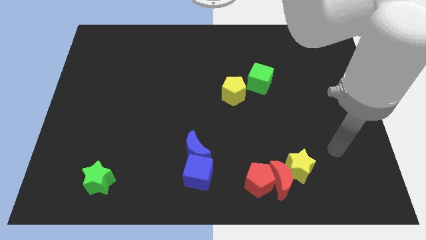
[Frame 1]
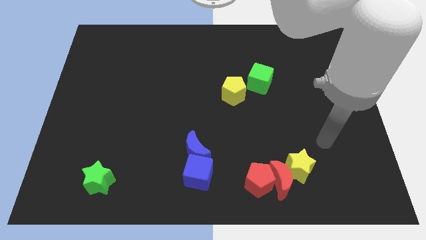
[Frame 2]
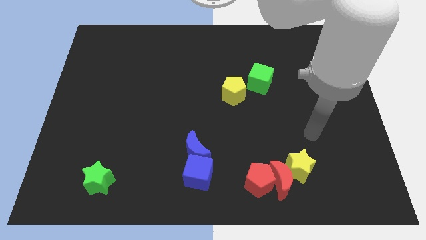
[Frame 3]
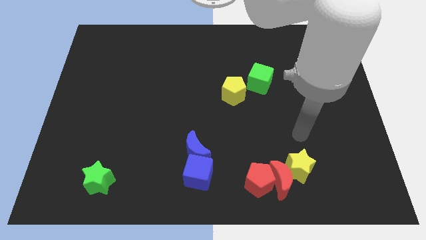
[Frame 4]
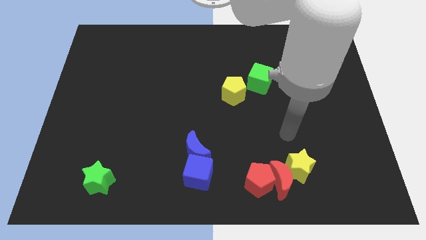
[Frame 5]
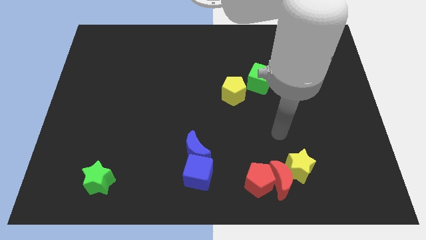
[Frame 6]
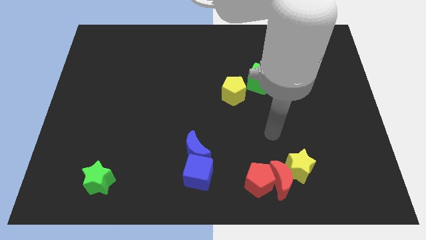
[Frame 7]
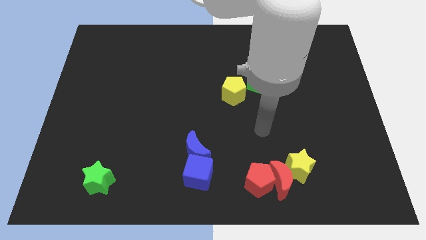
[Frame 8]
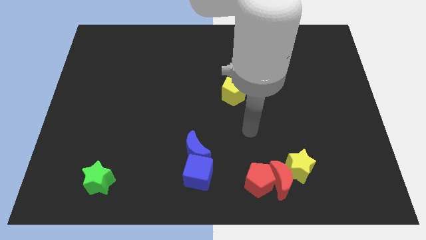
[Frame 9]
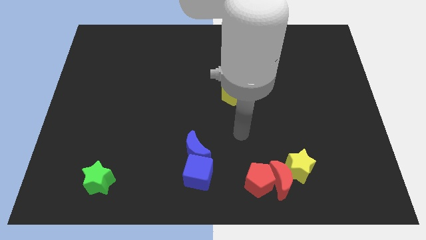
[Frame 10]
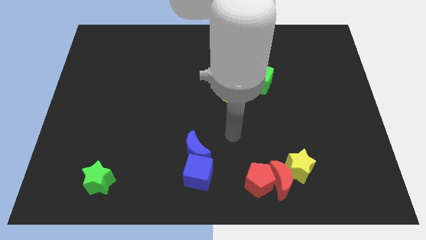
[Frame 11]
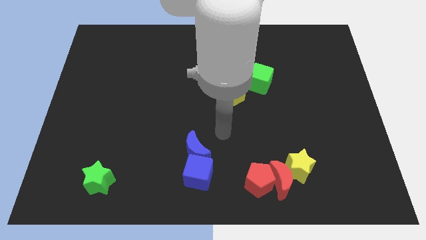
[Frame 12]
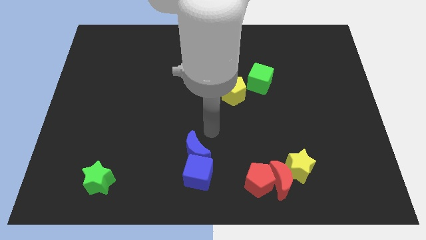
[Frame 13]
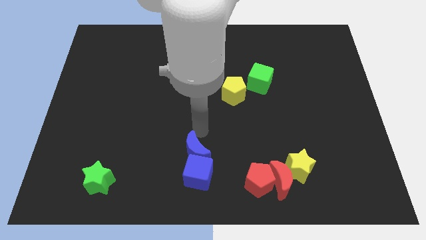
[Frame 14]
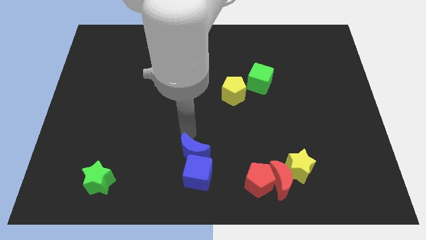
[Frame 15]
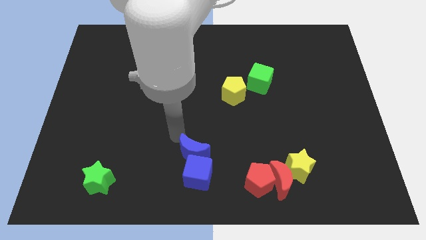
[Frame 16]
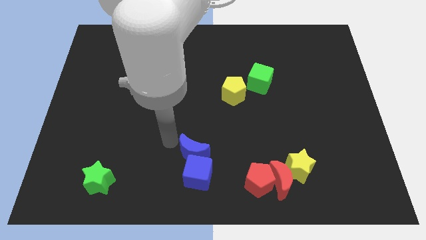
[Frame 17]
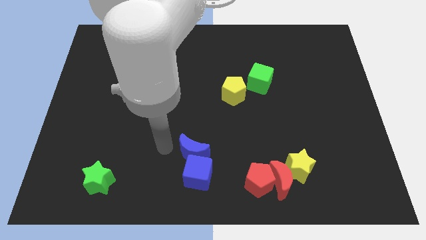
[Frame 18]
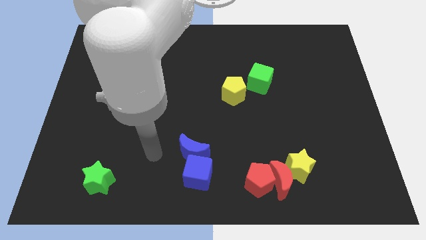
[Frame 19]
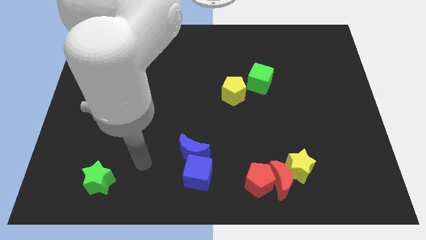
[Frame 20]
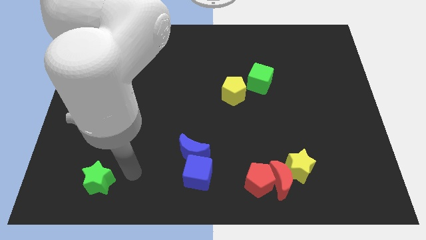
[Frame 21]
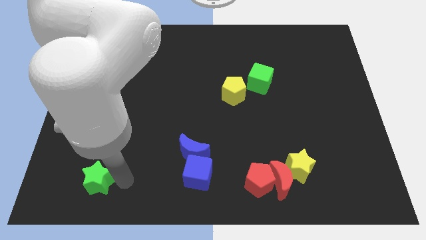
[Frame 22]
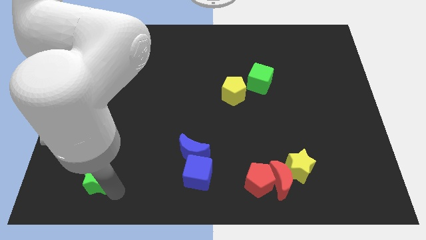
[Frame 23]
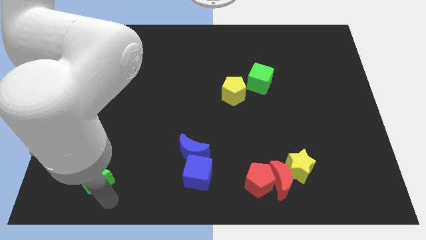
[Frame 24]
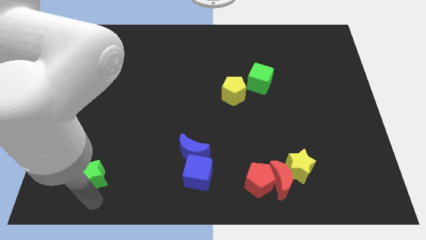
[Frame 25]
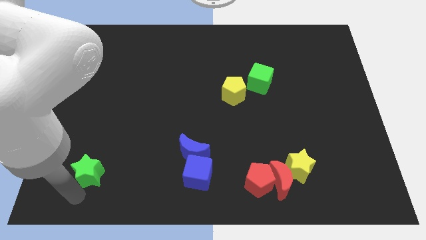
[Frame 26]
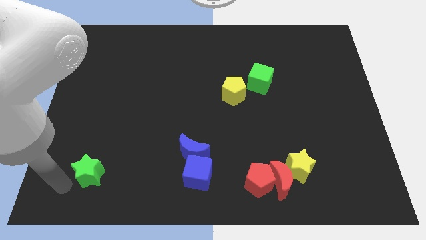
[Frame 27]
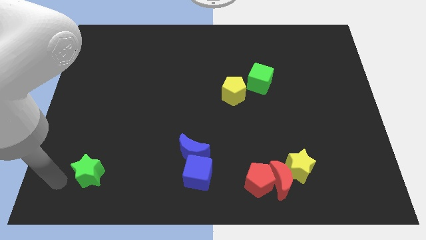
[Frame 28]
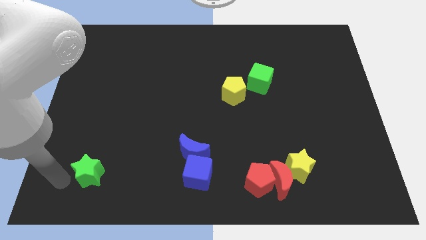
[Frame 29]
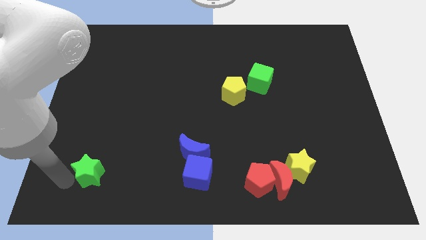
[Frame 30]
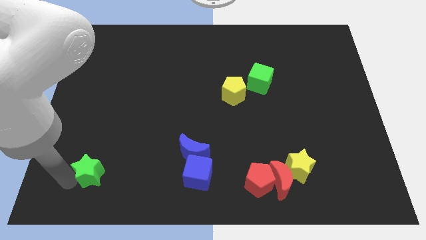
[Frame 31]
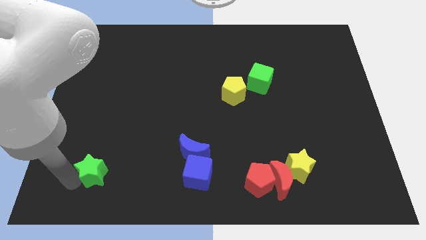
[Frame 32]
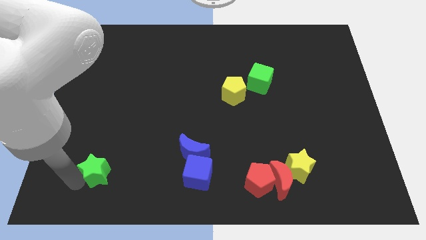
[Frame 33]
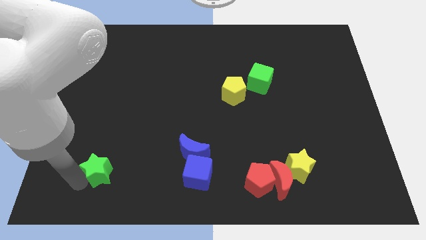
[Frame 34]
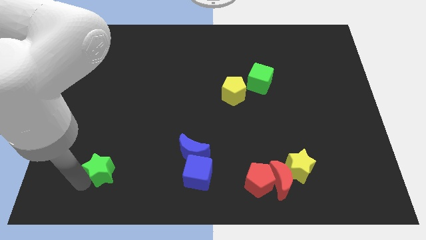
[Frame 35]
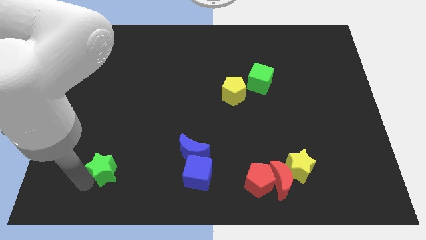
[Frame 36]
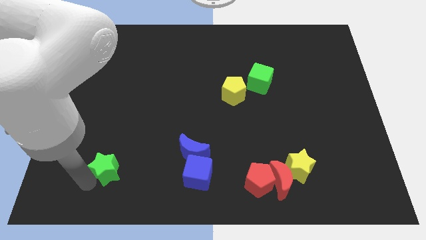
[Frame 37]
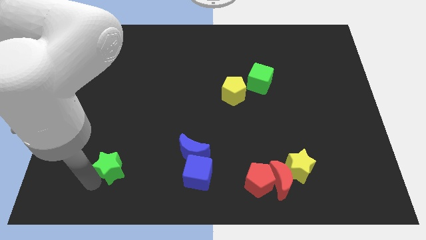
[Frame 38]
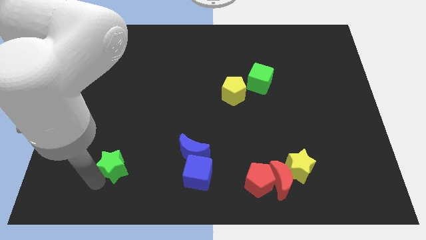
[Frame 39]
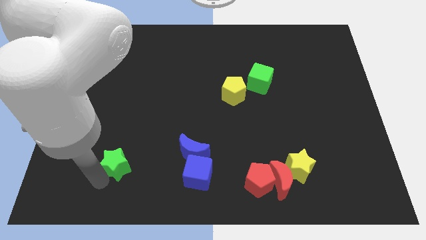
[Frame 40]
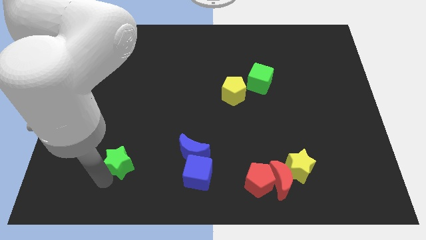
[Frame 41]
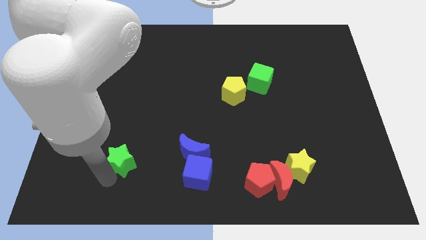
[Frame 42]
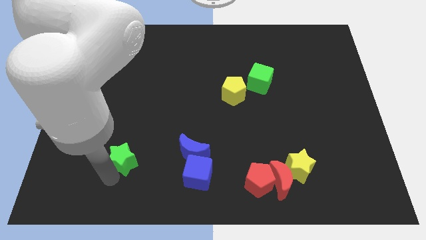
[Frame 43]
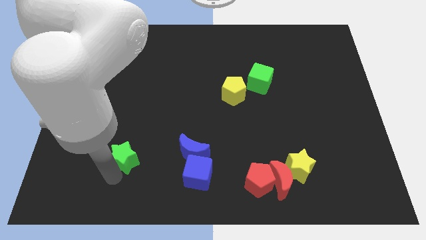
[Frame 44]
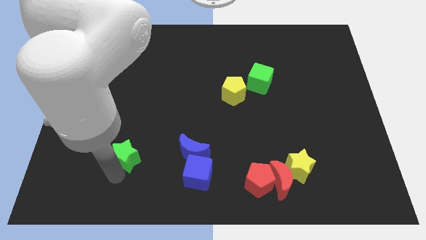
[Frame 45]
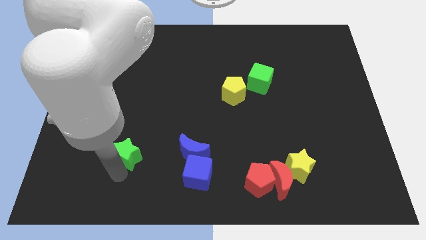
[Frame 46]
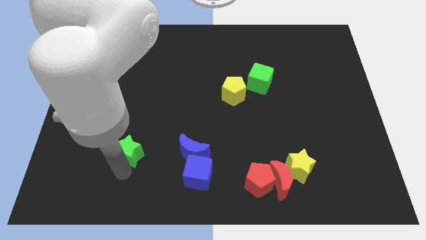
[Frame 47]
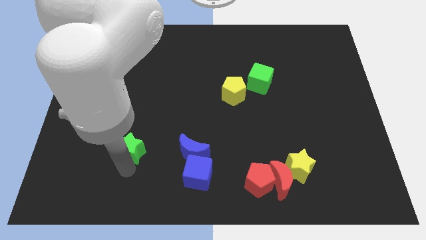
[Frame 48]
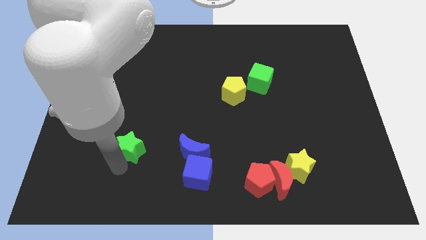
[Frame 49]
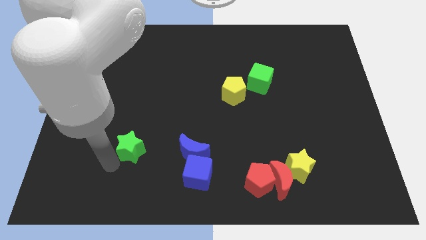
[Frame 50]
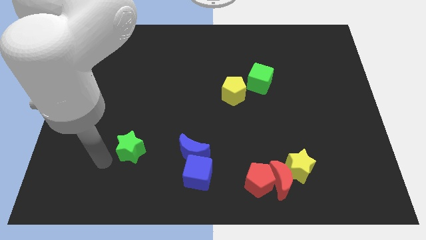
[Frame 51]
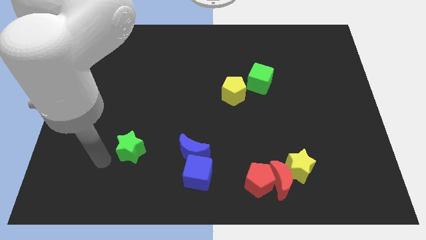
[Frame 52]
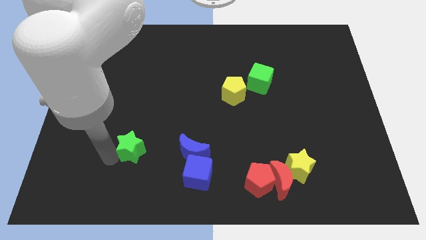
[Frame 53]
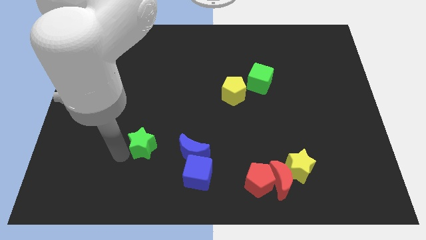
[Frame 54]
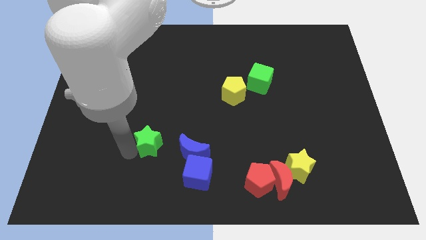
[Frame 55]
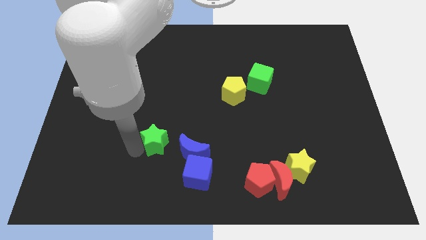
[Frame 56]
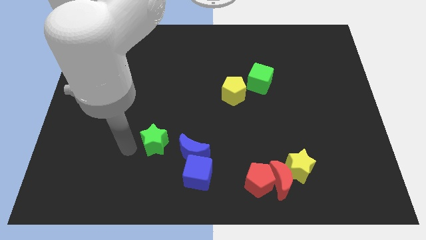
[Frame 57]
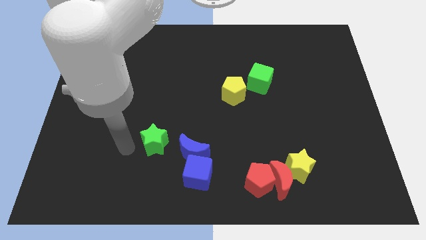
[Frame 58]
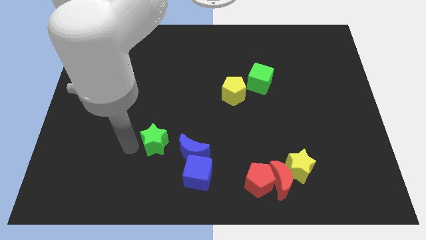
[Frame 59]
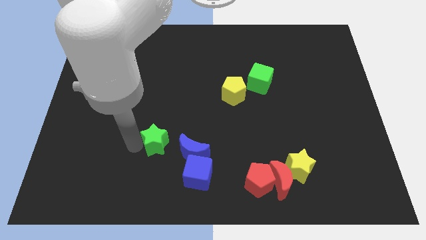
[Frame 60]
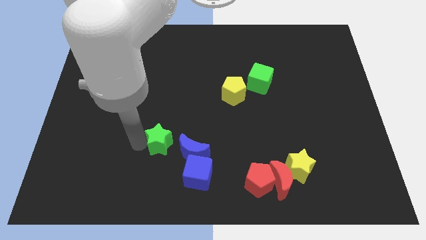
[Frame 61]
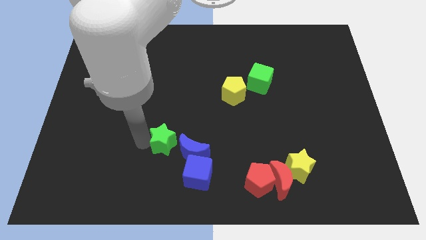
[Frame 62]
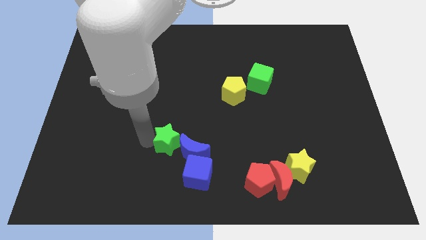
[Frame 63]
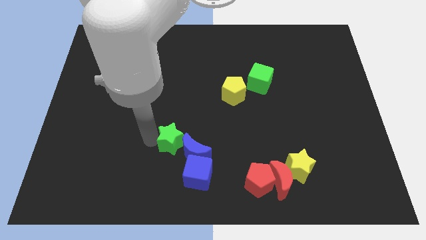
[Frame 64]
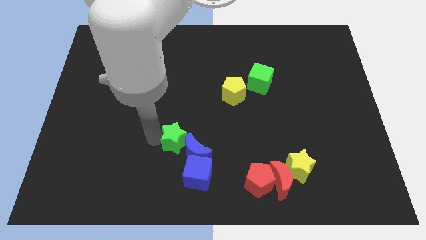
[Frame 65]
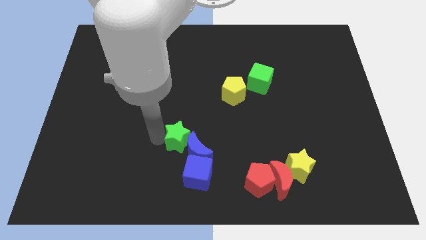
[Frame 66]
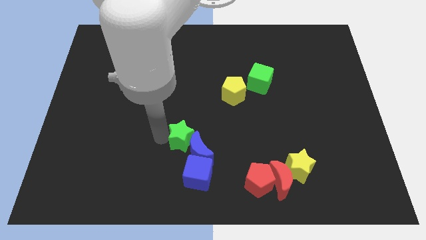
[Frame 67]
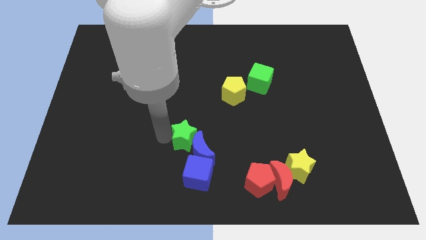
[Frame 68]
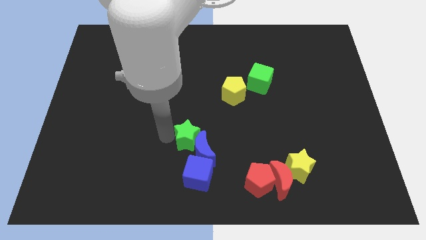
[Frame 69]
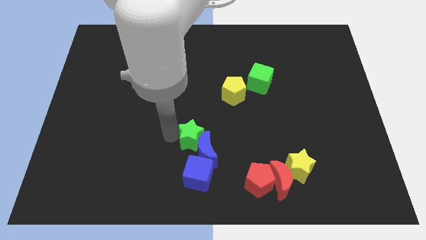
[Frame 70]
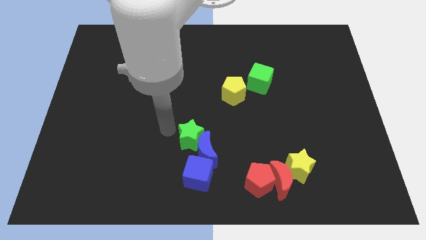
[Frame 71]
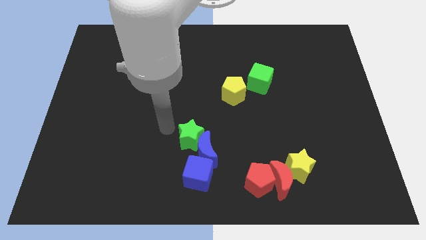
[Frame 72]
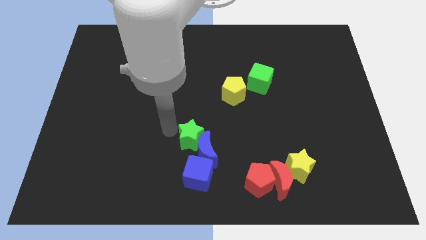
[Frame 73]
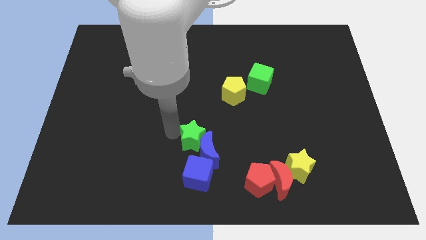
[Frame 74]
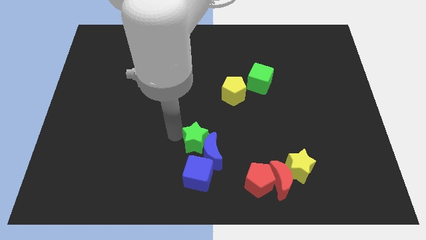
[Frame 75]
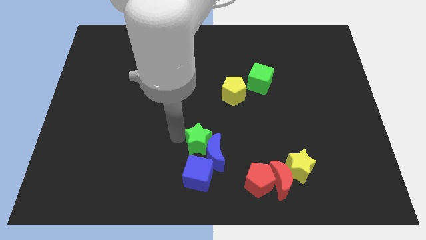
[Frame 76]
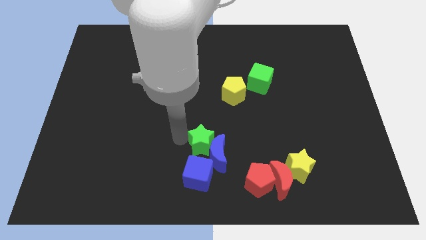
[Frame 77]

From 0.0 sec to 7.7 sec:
put the green star to the top right of the blue cube
